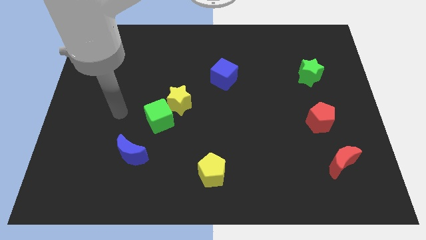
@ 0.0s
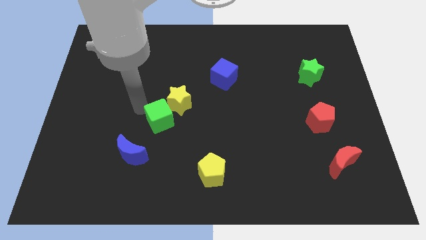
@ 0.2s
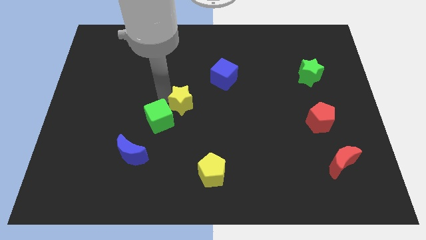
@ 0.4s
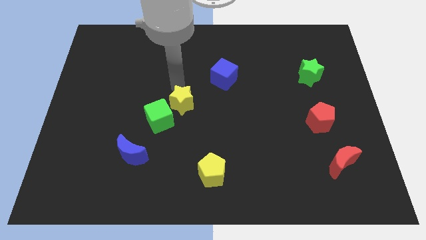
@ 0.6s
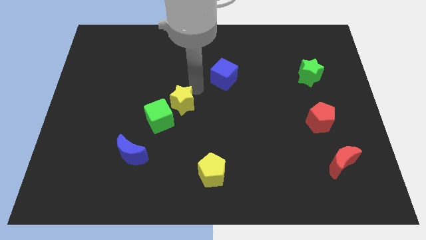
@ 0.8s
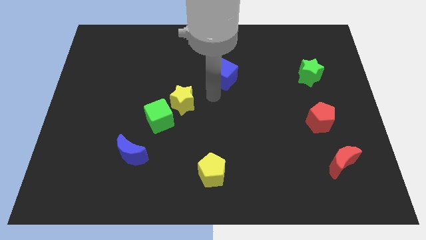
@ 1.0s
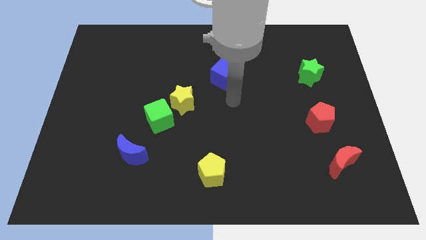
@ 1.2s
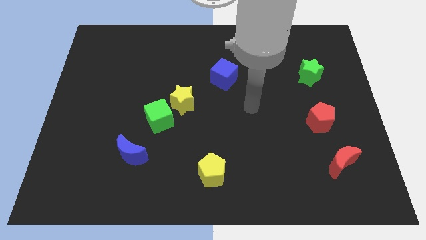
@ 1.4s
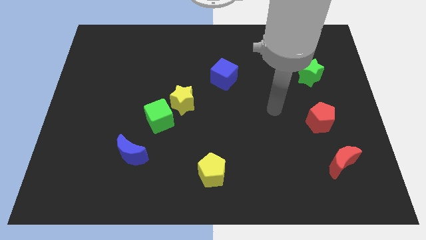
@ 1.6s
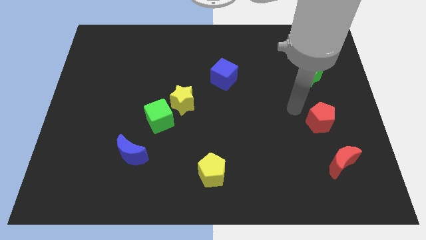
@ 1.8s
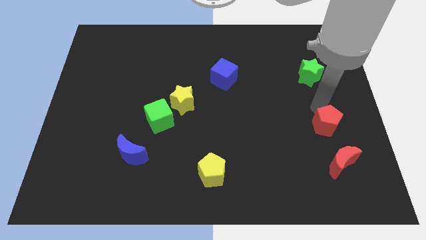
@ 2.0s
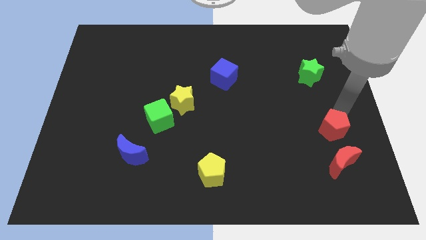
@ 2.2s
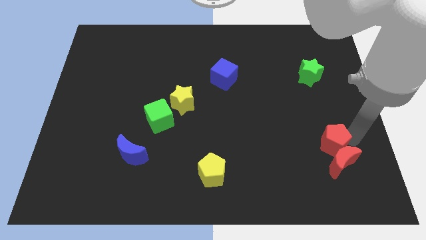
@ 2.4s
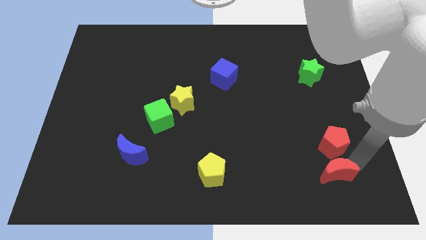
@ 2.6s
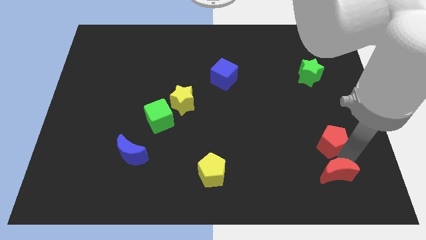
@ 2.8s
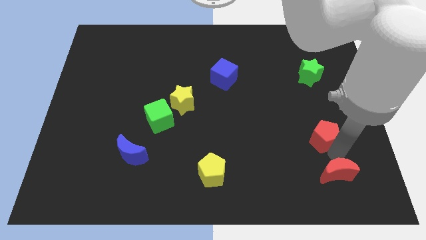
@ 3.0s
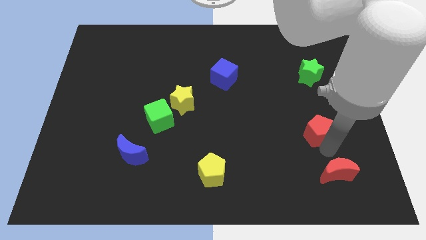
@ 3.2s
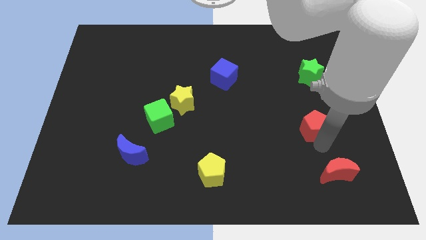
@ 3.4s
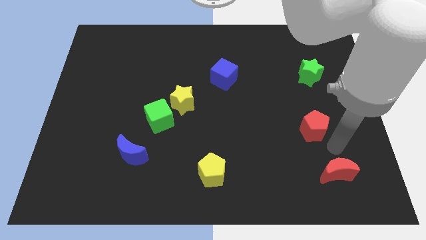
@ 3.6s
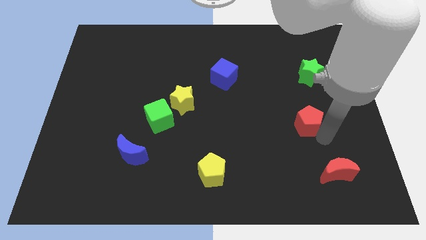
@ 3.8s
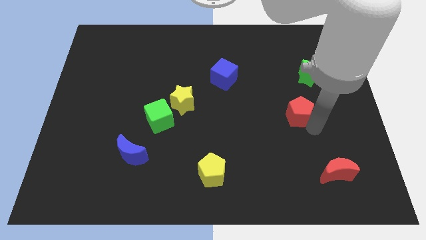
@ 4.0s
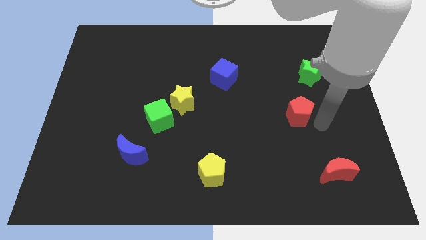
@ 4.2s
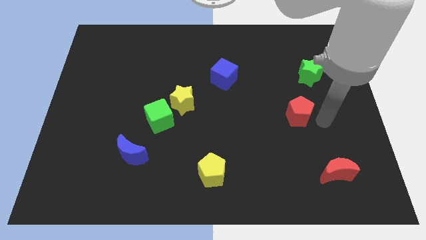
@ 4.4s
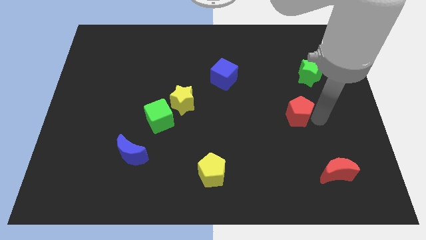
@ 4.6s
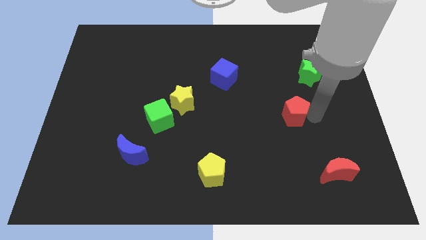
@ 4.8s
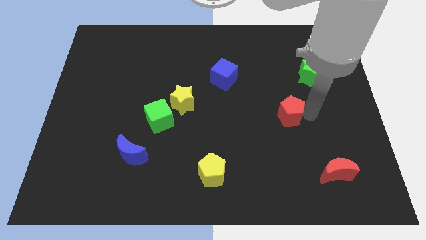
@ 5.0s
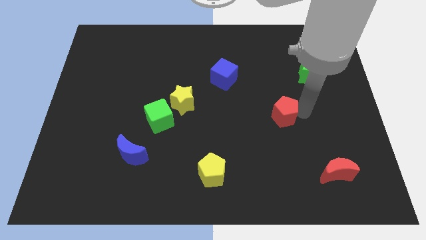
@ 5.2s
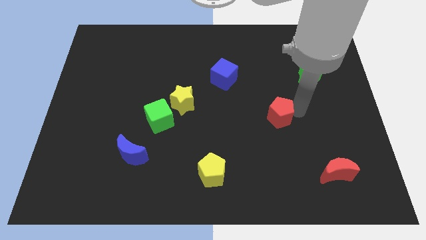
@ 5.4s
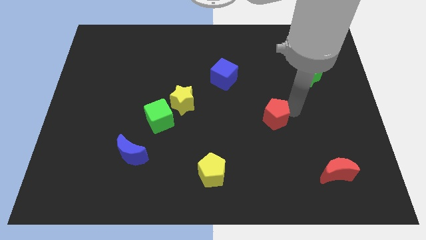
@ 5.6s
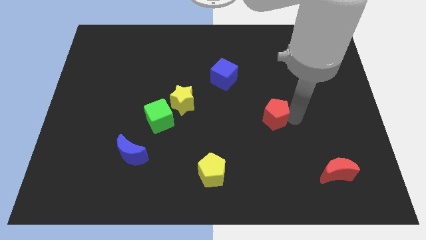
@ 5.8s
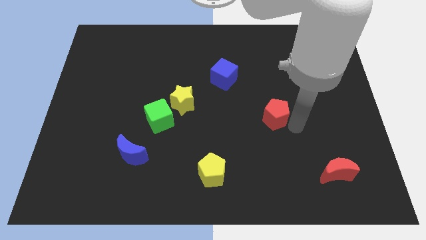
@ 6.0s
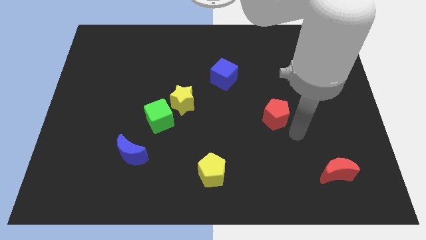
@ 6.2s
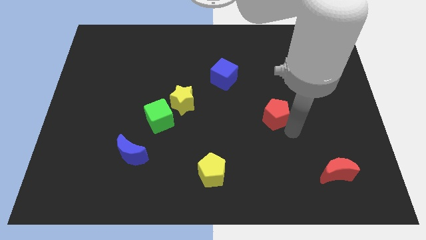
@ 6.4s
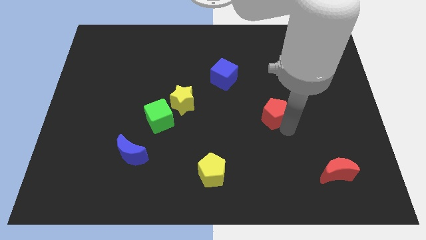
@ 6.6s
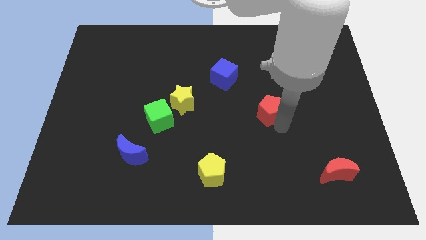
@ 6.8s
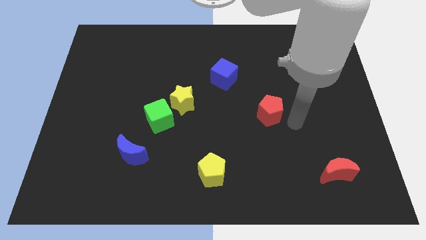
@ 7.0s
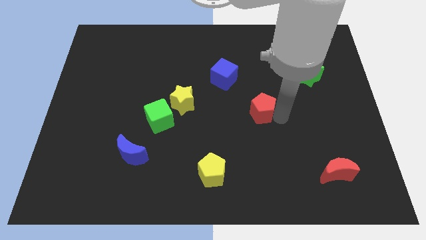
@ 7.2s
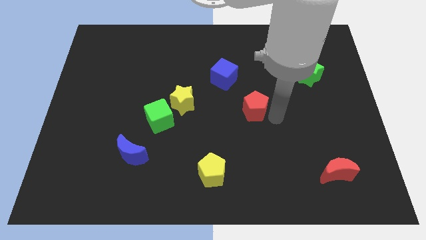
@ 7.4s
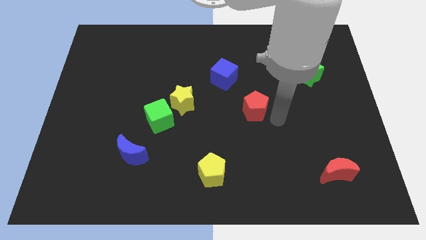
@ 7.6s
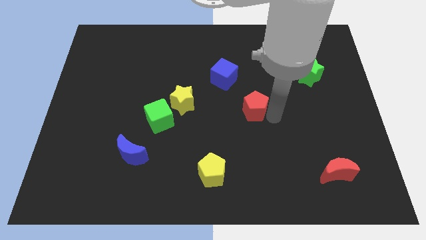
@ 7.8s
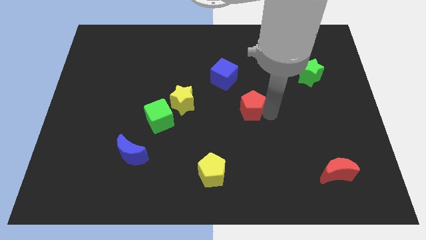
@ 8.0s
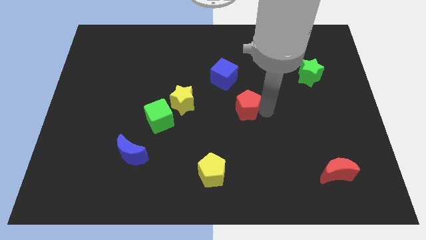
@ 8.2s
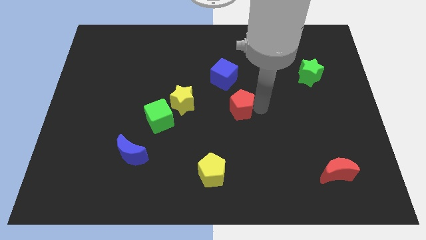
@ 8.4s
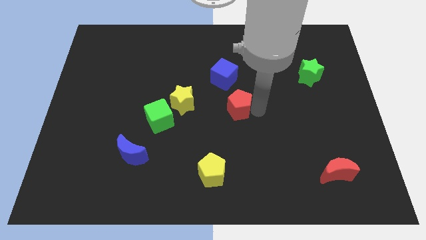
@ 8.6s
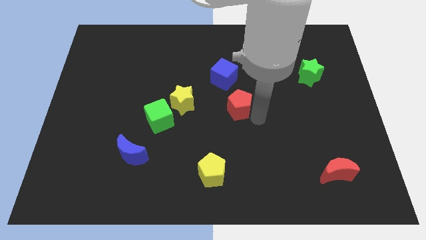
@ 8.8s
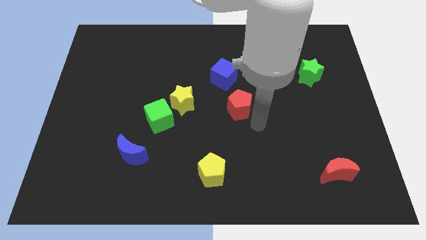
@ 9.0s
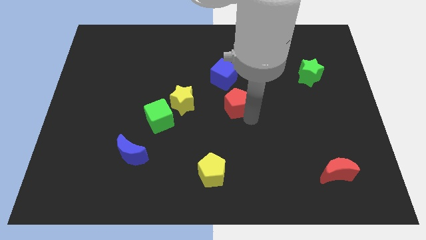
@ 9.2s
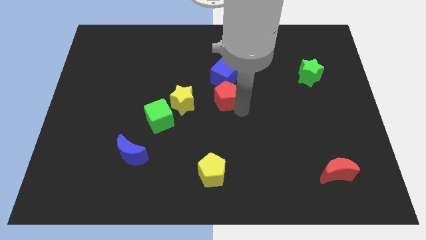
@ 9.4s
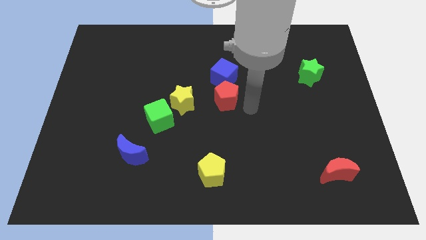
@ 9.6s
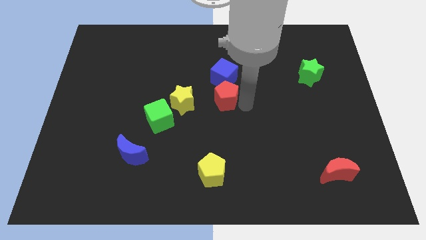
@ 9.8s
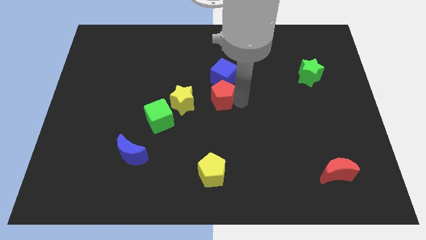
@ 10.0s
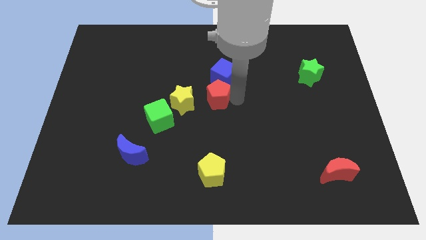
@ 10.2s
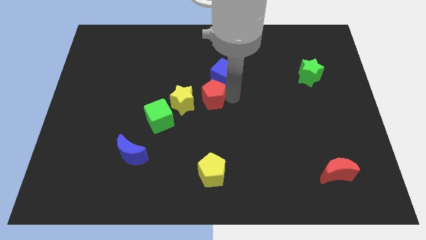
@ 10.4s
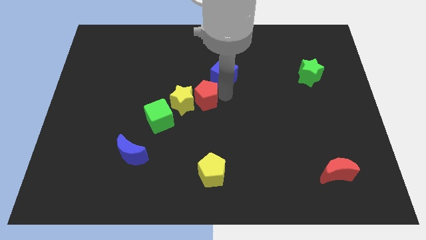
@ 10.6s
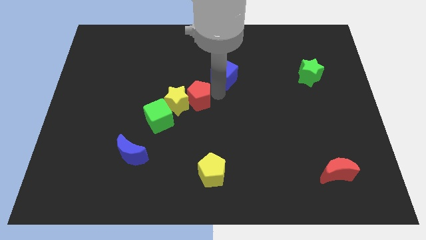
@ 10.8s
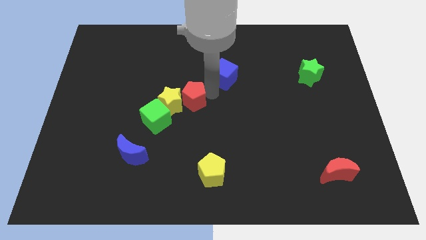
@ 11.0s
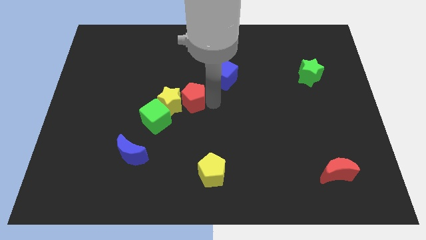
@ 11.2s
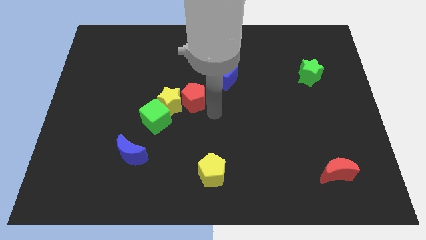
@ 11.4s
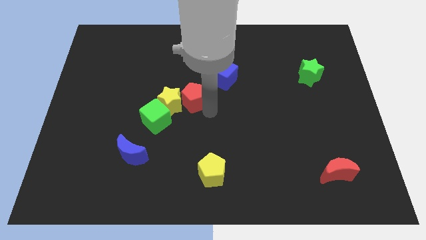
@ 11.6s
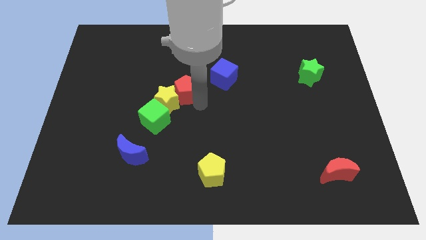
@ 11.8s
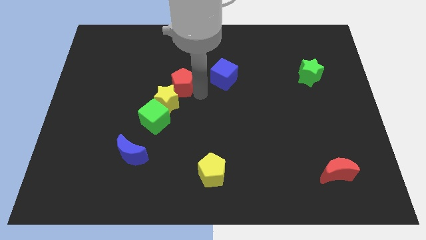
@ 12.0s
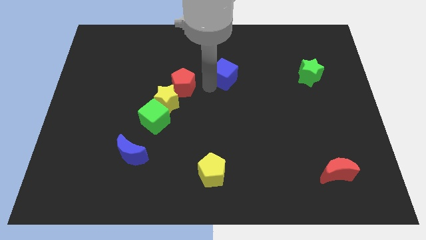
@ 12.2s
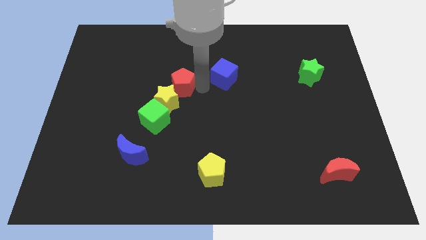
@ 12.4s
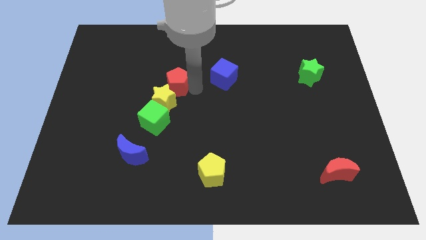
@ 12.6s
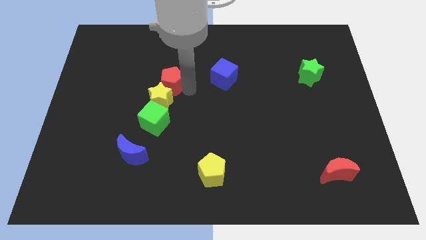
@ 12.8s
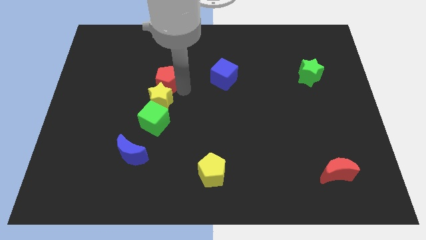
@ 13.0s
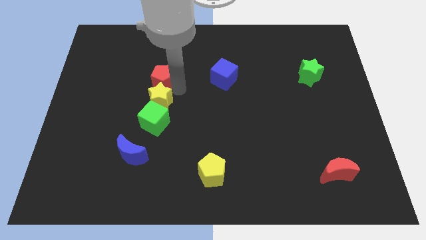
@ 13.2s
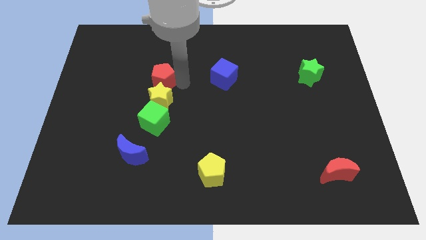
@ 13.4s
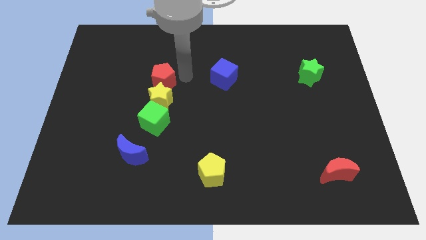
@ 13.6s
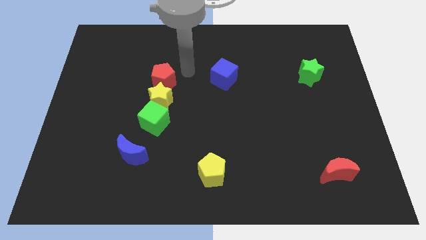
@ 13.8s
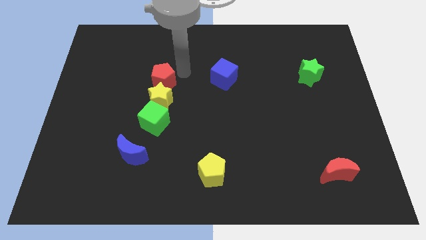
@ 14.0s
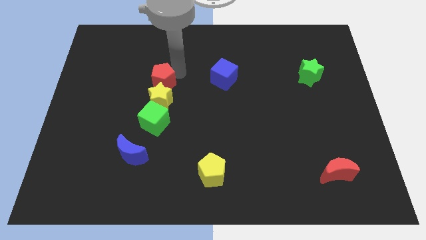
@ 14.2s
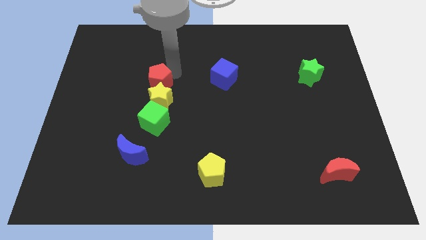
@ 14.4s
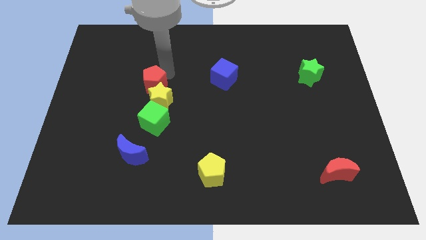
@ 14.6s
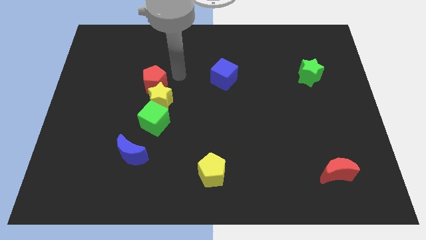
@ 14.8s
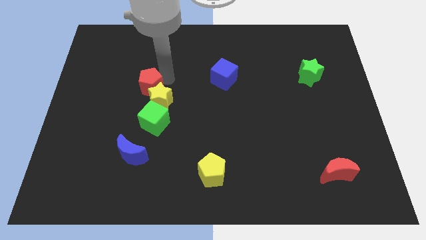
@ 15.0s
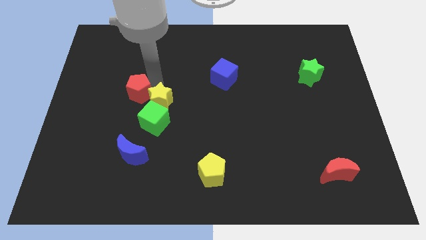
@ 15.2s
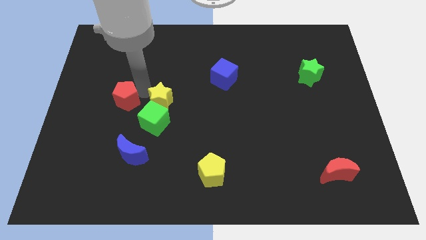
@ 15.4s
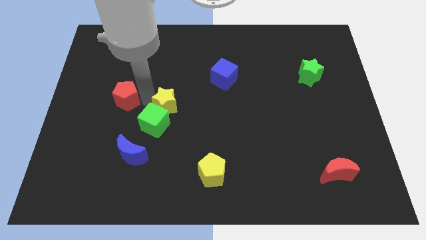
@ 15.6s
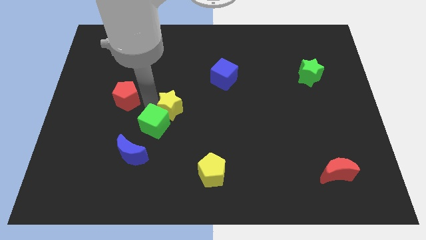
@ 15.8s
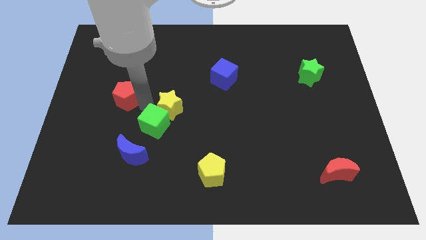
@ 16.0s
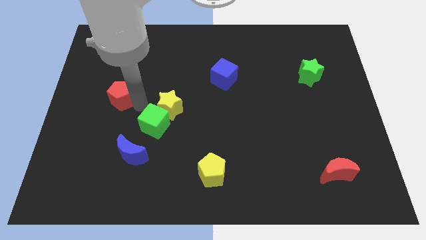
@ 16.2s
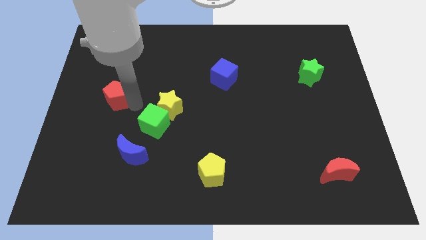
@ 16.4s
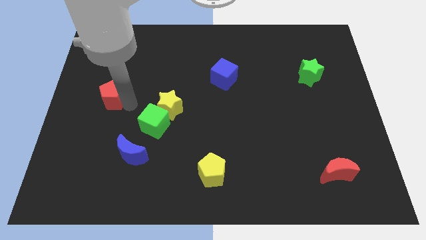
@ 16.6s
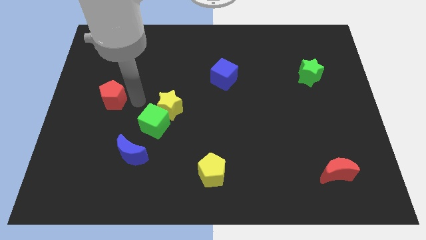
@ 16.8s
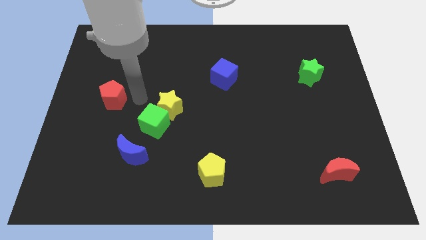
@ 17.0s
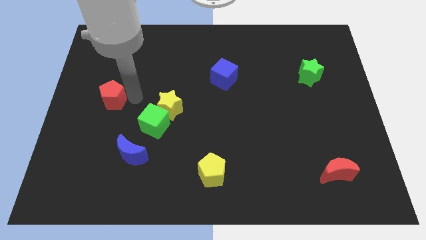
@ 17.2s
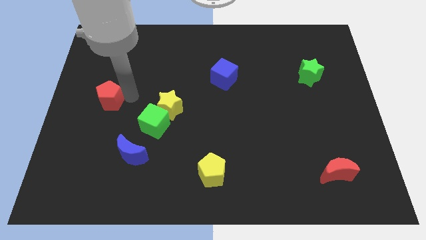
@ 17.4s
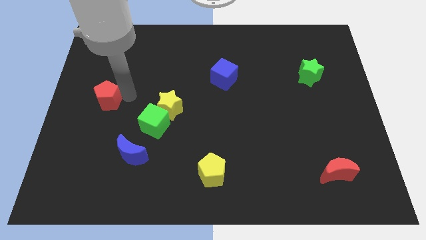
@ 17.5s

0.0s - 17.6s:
push the red pentagon to the left side of the board
